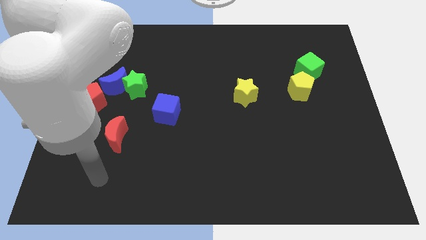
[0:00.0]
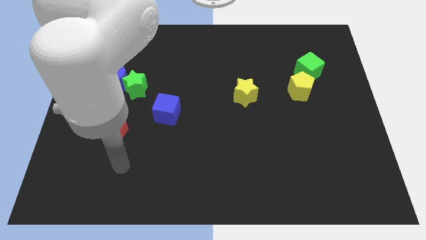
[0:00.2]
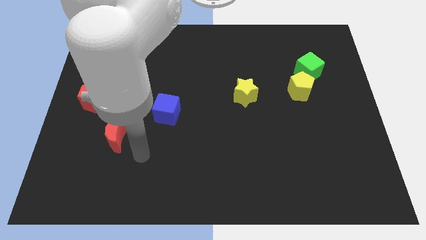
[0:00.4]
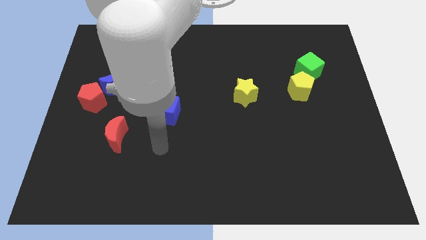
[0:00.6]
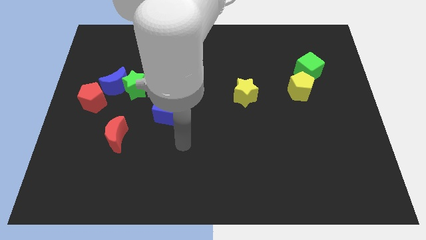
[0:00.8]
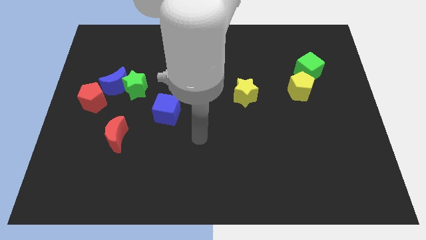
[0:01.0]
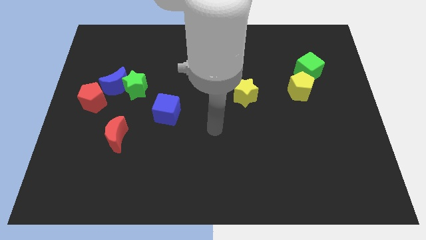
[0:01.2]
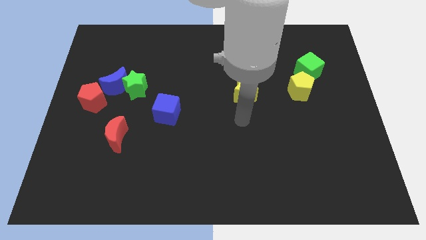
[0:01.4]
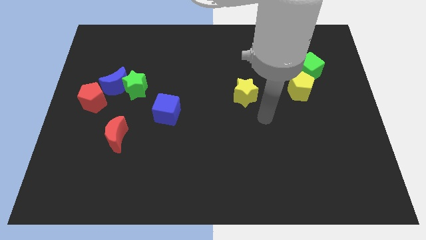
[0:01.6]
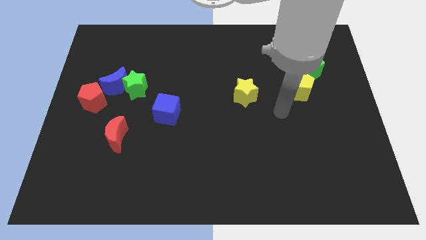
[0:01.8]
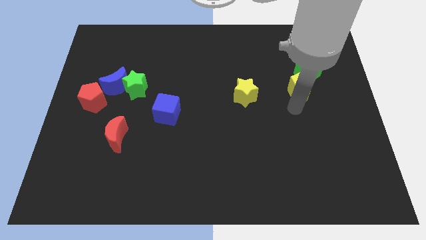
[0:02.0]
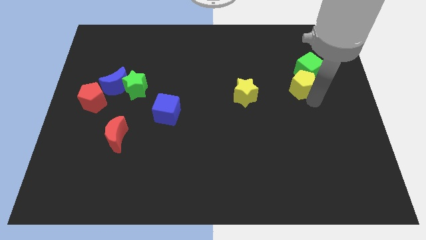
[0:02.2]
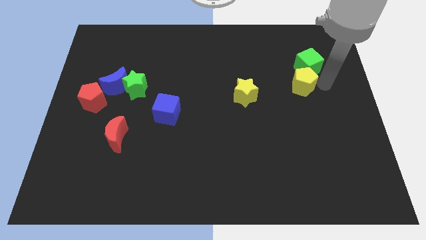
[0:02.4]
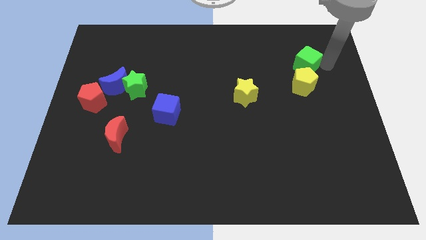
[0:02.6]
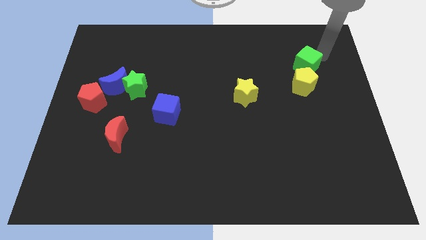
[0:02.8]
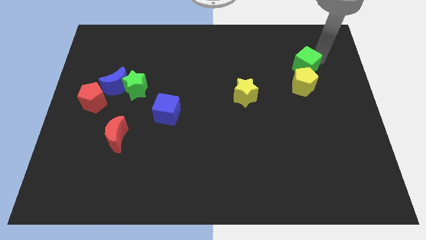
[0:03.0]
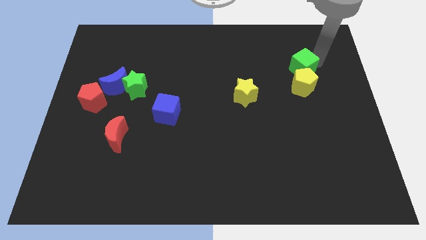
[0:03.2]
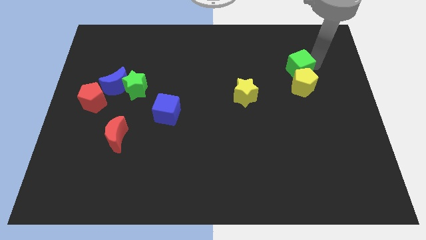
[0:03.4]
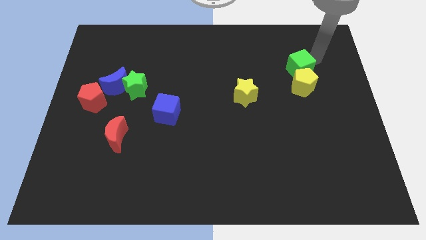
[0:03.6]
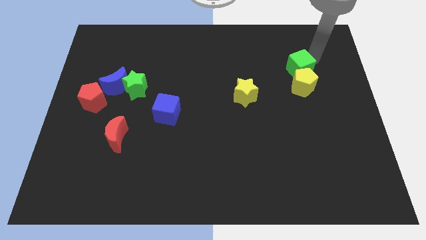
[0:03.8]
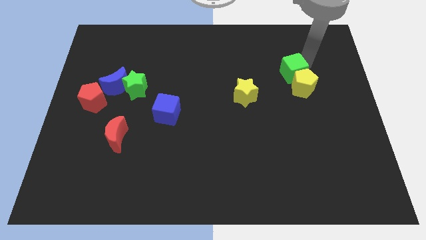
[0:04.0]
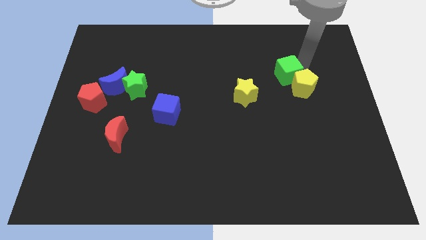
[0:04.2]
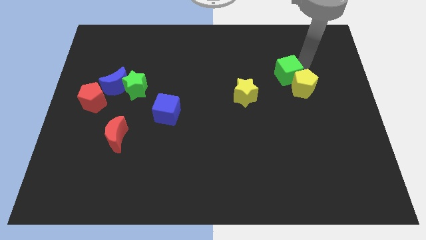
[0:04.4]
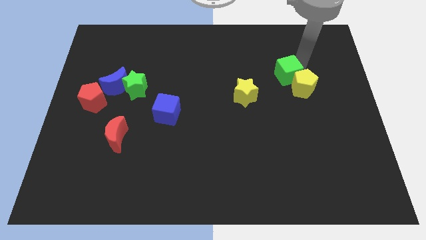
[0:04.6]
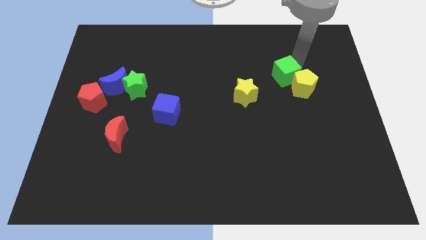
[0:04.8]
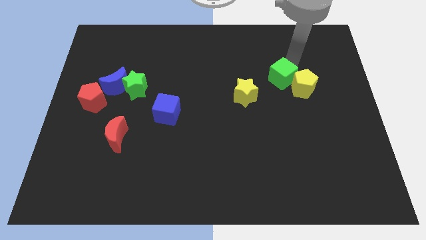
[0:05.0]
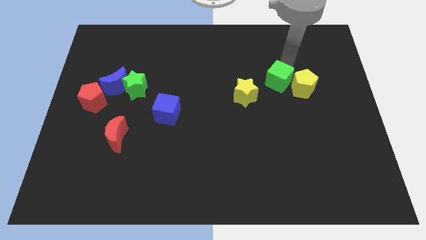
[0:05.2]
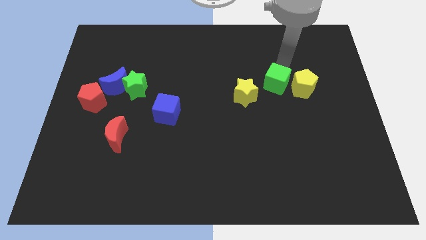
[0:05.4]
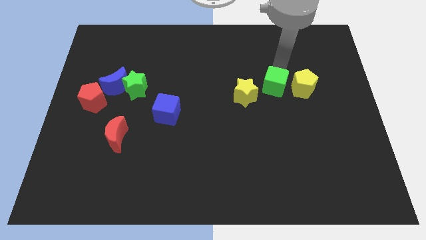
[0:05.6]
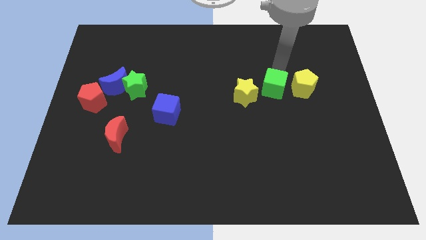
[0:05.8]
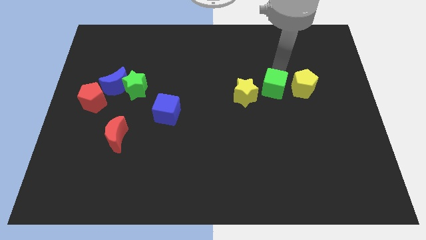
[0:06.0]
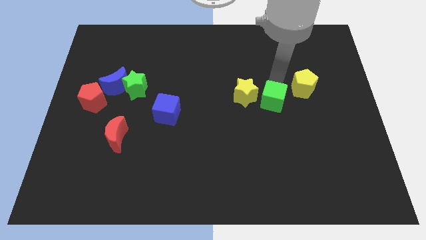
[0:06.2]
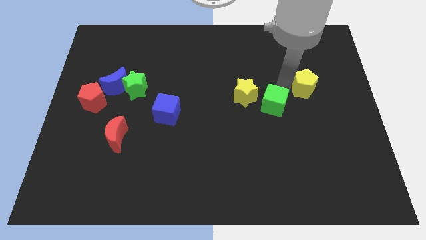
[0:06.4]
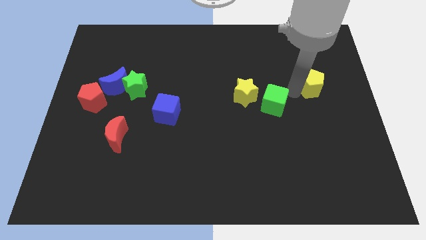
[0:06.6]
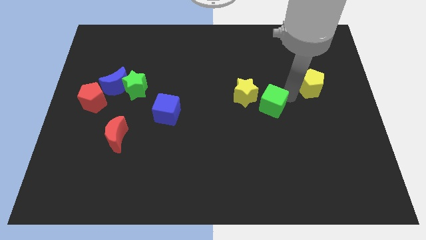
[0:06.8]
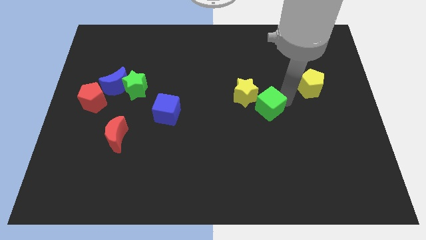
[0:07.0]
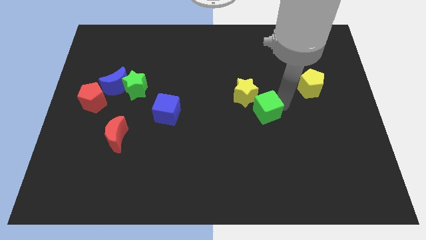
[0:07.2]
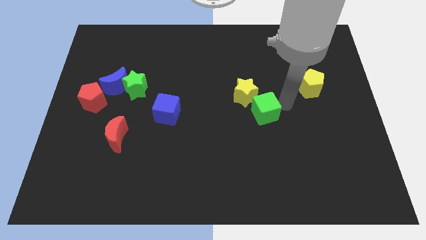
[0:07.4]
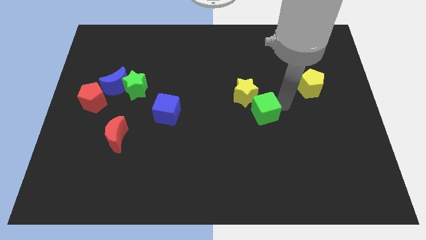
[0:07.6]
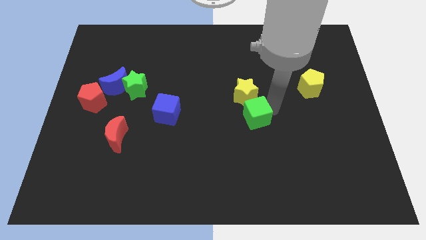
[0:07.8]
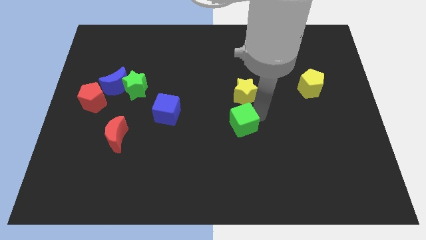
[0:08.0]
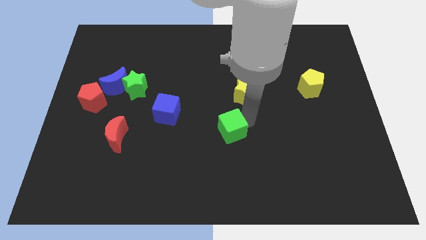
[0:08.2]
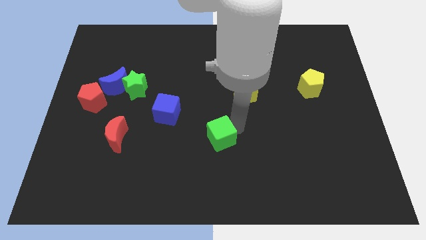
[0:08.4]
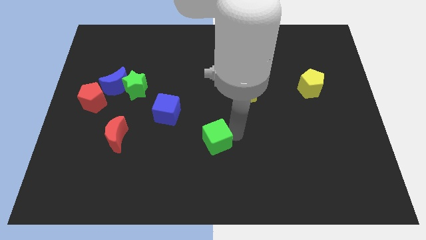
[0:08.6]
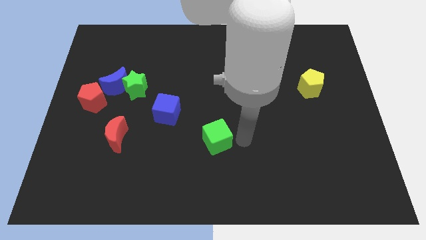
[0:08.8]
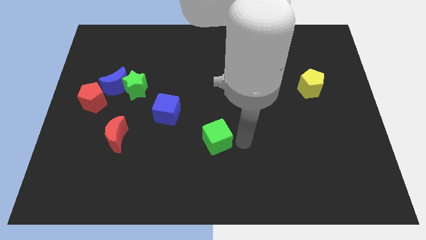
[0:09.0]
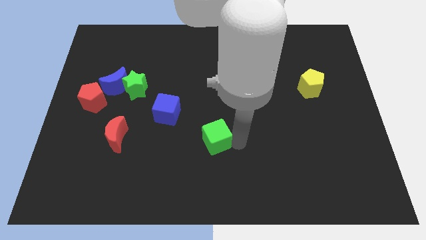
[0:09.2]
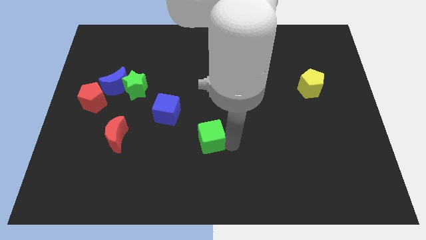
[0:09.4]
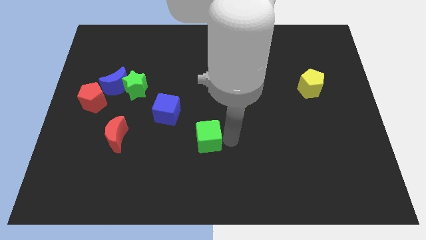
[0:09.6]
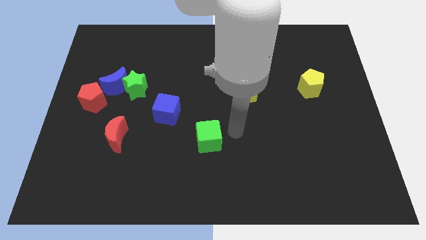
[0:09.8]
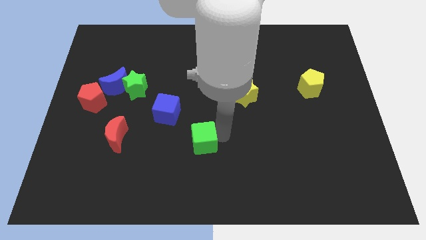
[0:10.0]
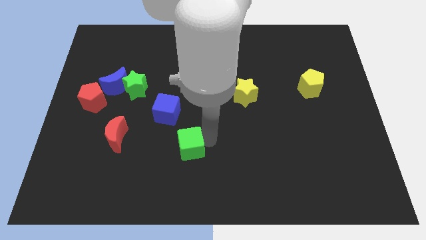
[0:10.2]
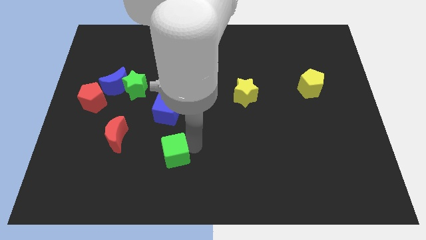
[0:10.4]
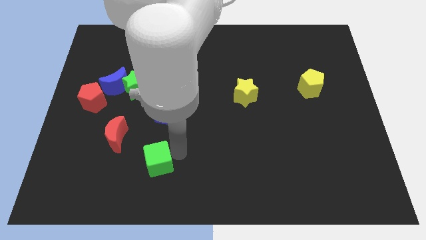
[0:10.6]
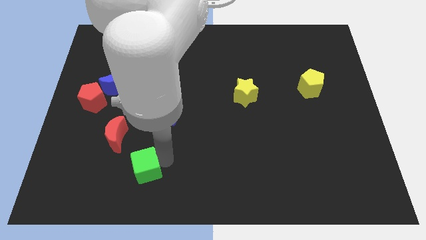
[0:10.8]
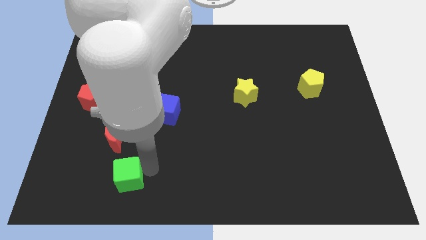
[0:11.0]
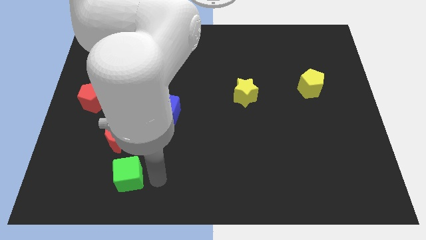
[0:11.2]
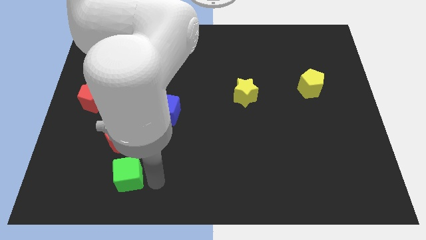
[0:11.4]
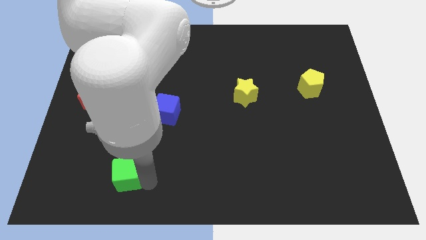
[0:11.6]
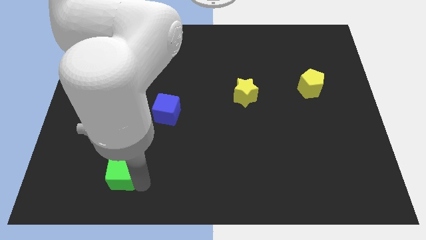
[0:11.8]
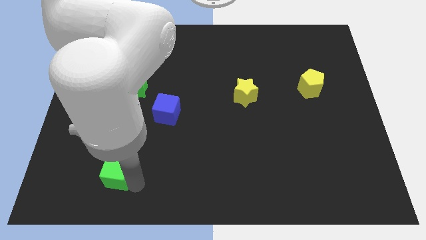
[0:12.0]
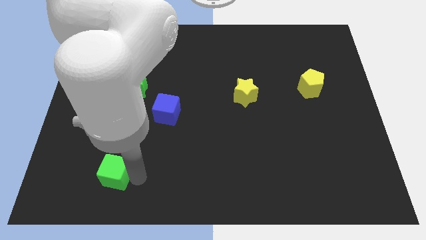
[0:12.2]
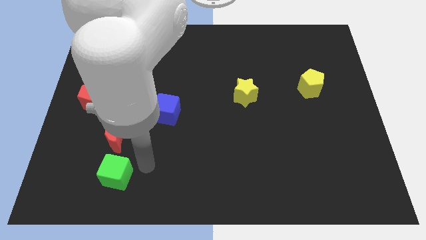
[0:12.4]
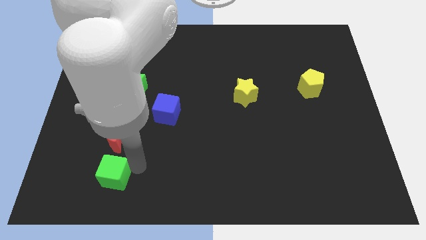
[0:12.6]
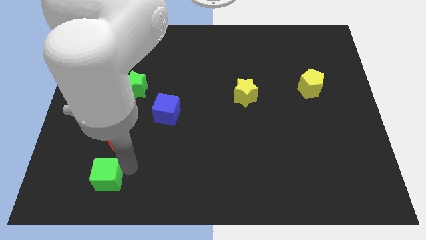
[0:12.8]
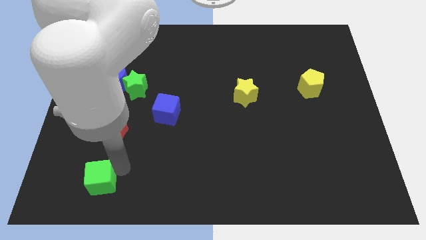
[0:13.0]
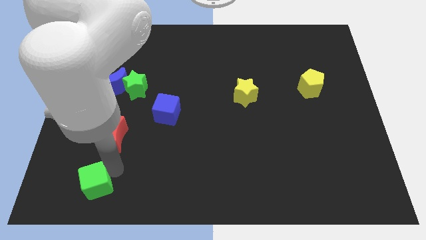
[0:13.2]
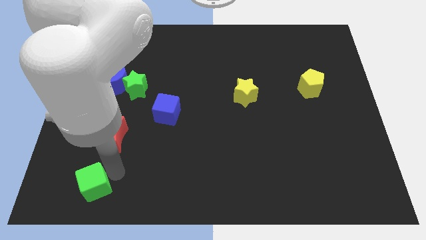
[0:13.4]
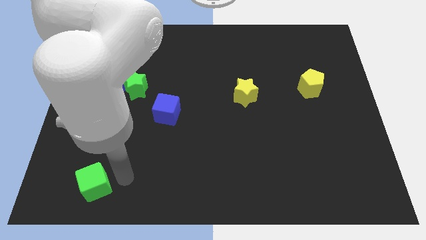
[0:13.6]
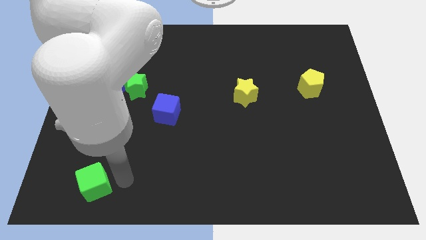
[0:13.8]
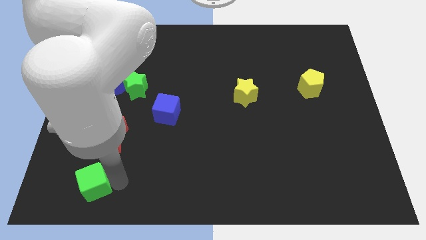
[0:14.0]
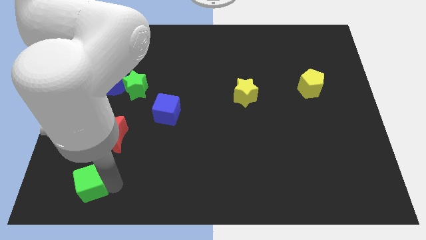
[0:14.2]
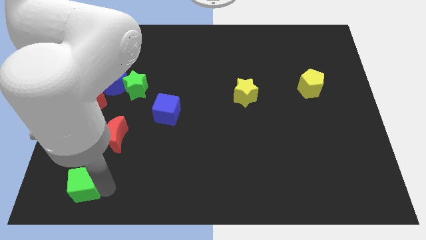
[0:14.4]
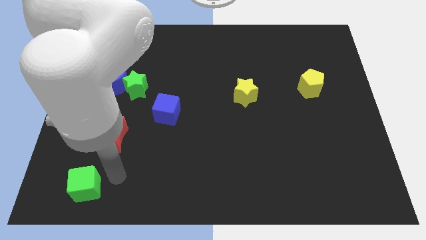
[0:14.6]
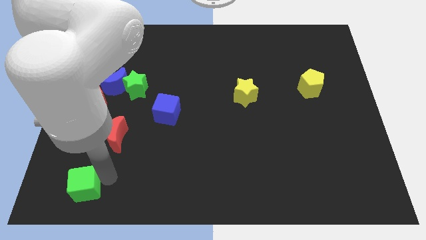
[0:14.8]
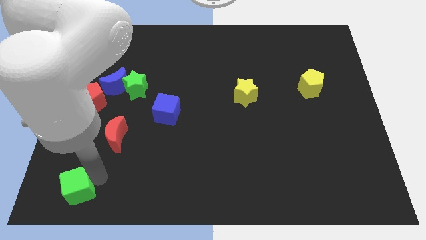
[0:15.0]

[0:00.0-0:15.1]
slide the green cube to the bottom left
